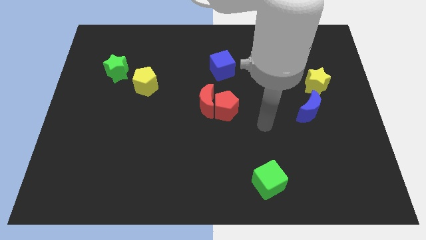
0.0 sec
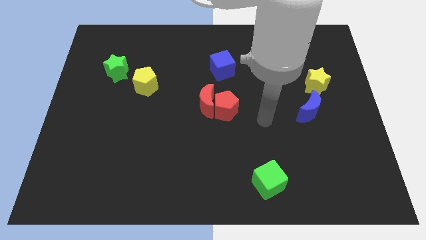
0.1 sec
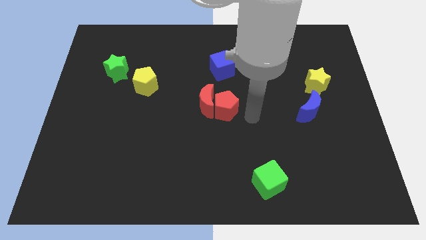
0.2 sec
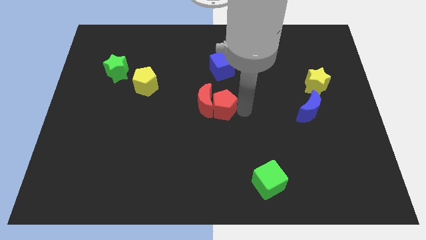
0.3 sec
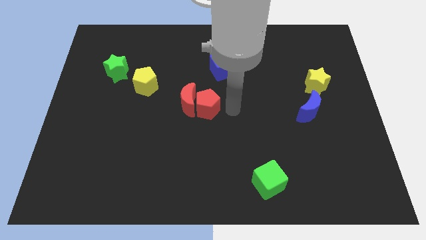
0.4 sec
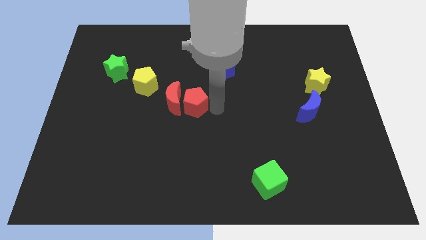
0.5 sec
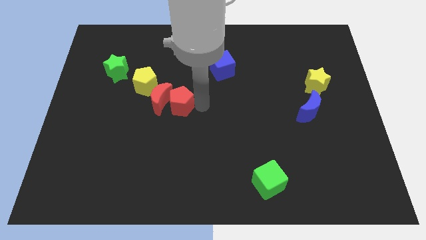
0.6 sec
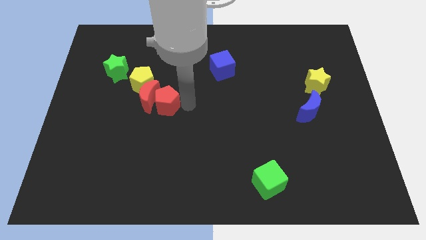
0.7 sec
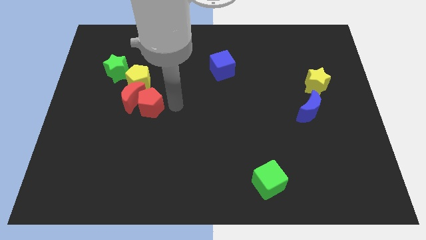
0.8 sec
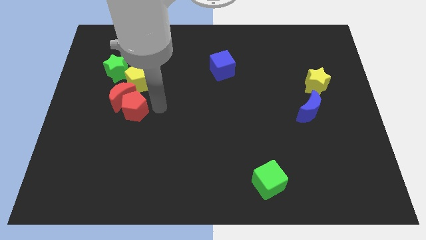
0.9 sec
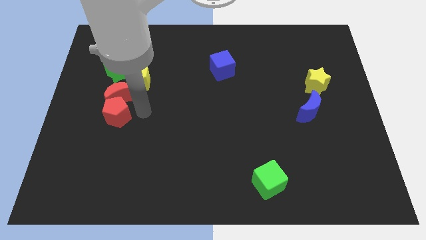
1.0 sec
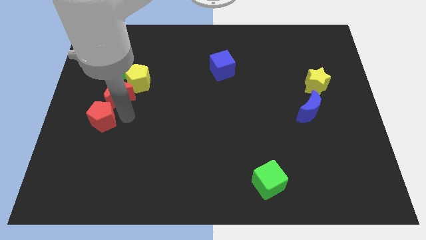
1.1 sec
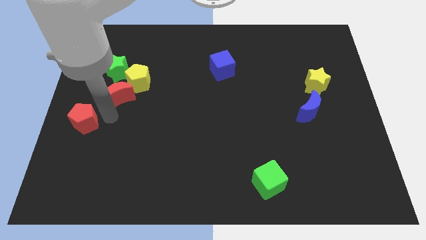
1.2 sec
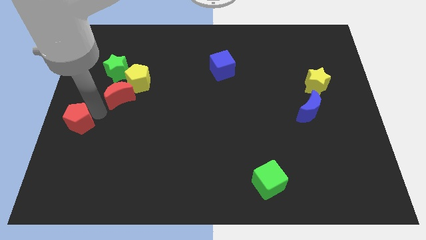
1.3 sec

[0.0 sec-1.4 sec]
move the red moon away from the red pentagon

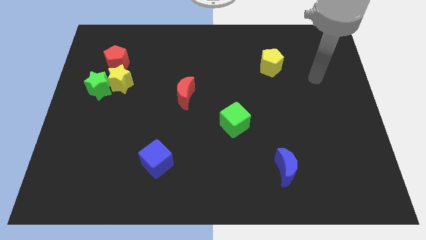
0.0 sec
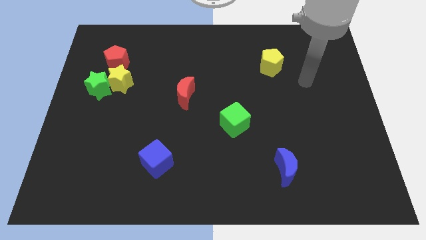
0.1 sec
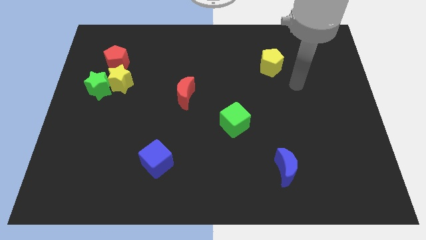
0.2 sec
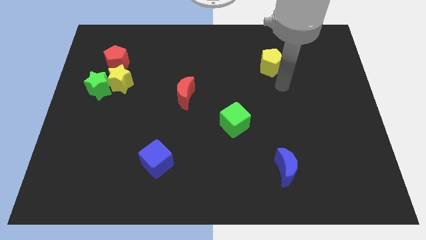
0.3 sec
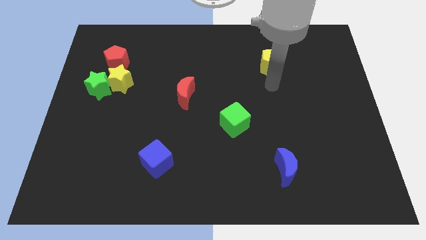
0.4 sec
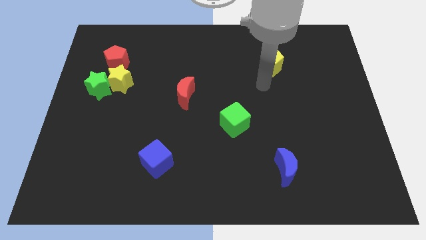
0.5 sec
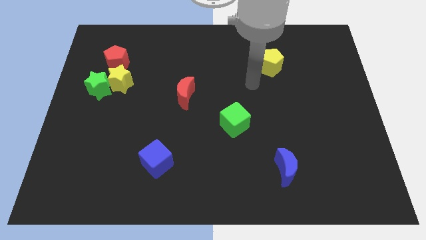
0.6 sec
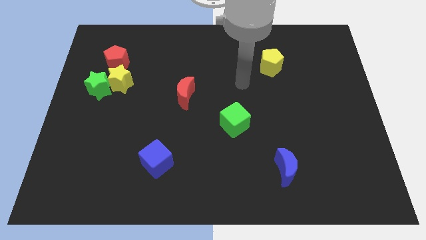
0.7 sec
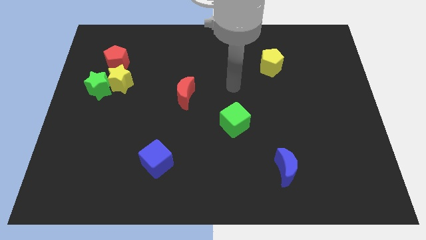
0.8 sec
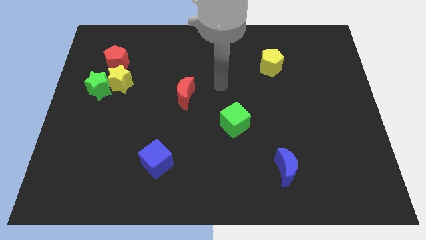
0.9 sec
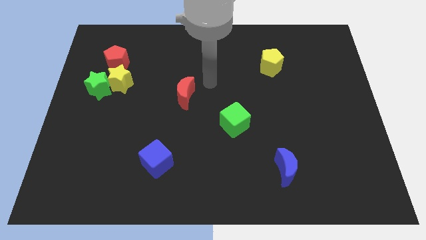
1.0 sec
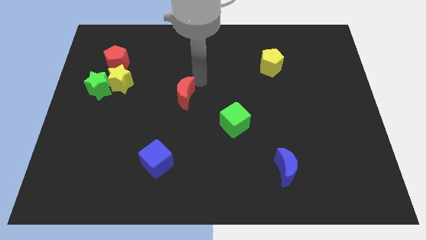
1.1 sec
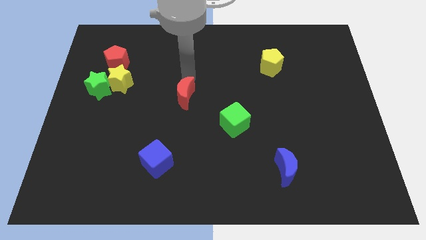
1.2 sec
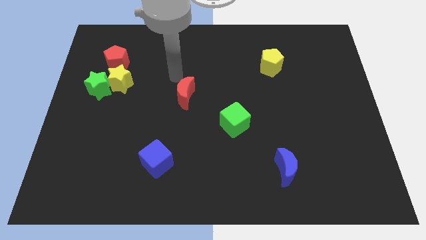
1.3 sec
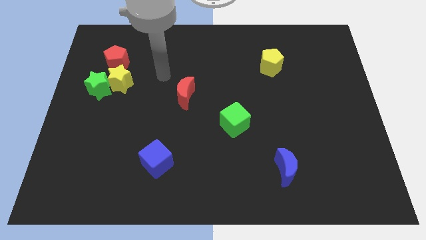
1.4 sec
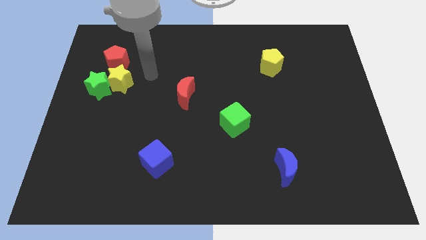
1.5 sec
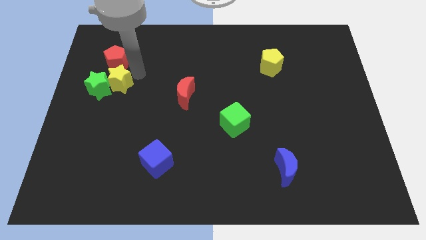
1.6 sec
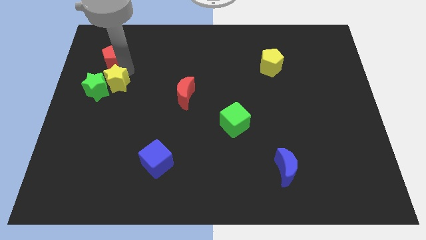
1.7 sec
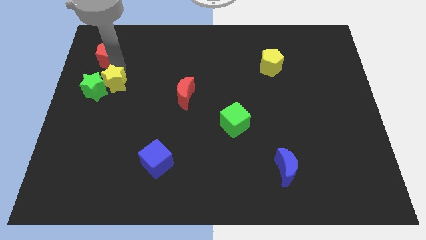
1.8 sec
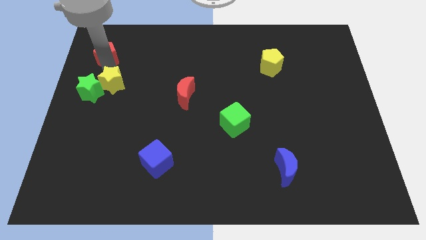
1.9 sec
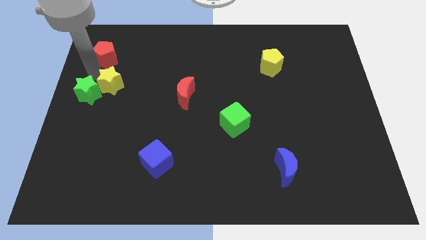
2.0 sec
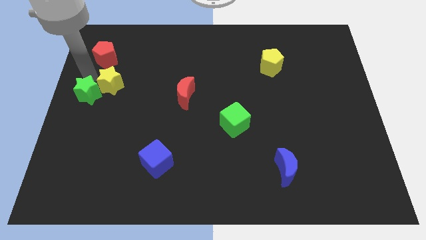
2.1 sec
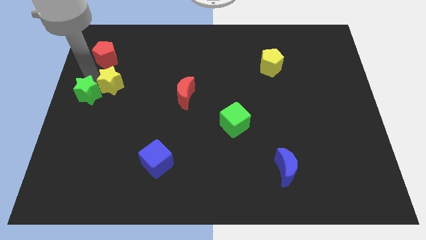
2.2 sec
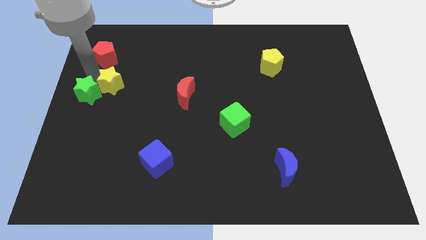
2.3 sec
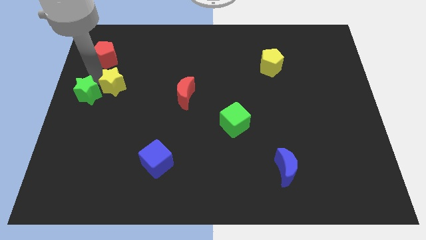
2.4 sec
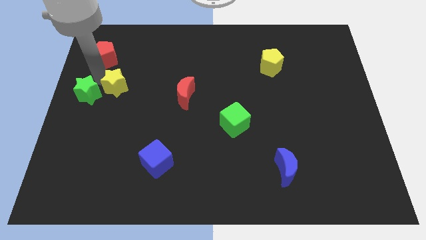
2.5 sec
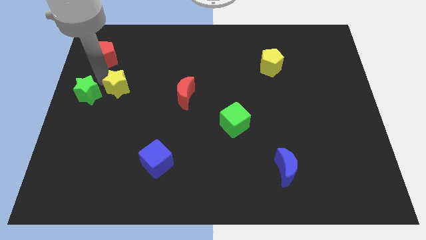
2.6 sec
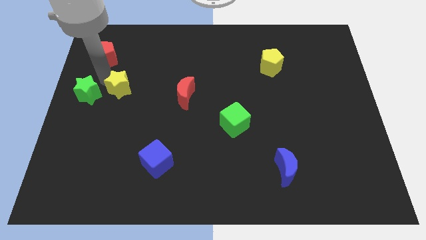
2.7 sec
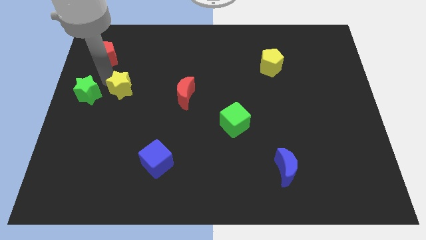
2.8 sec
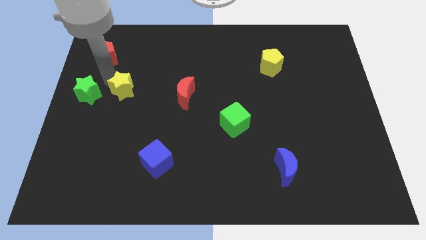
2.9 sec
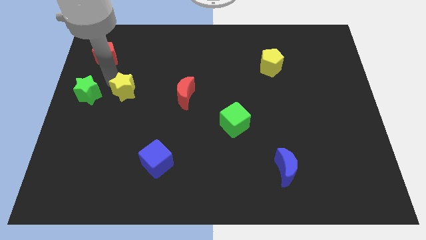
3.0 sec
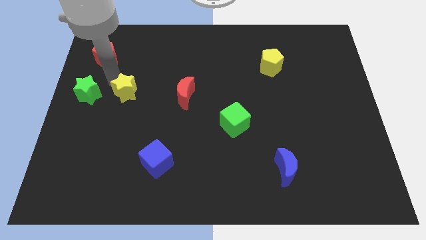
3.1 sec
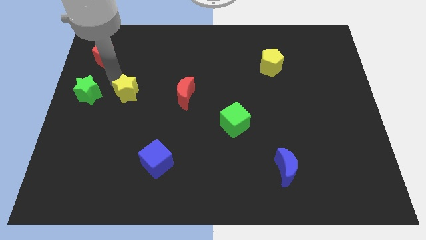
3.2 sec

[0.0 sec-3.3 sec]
separate the yellow star from the green star and red pentagon

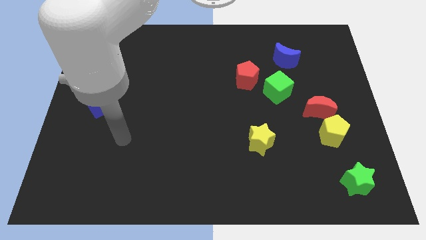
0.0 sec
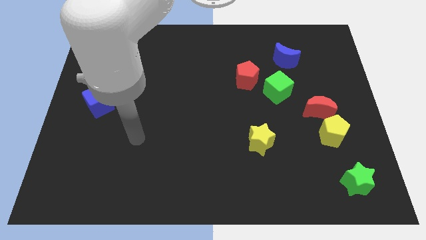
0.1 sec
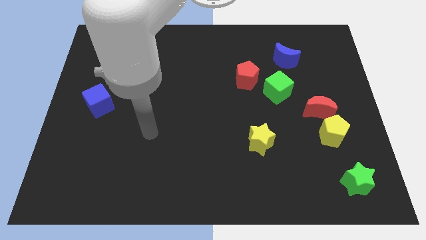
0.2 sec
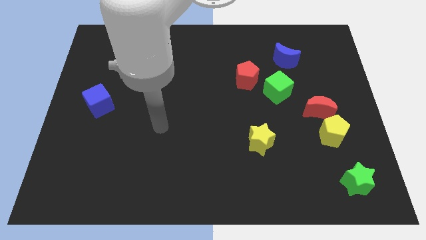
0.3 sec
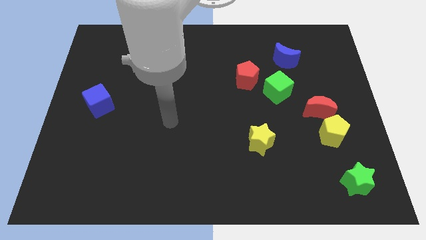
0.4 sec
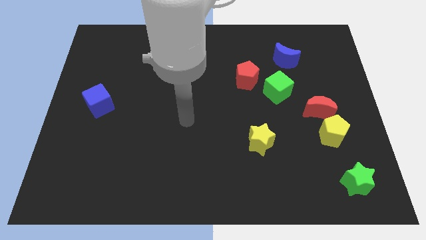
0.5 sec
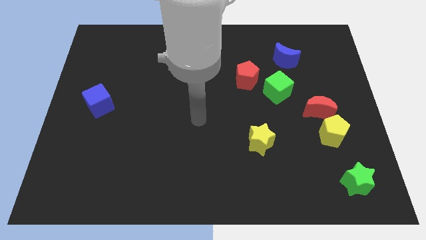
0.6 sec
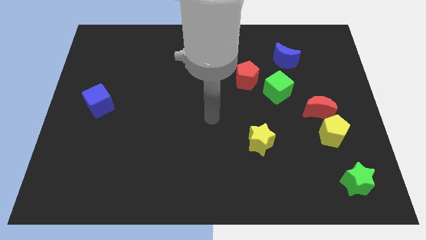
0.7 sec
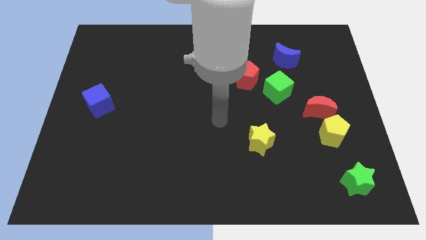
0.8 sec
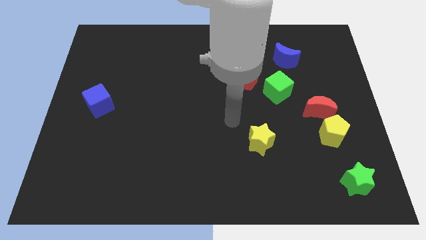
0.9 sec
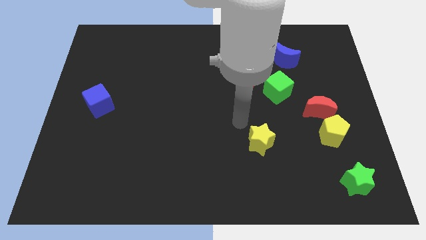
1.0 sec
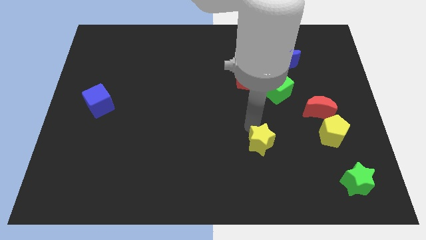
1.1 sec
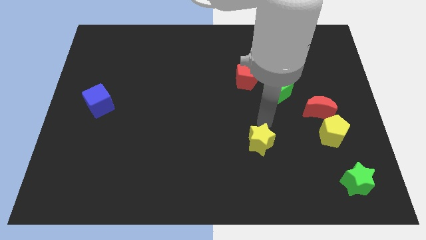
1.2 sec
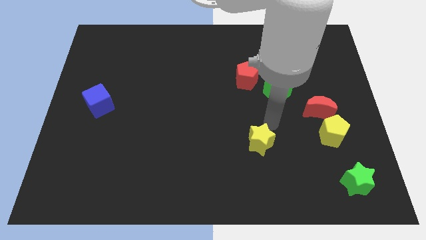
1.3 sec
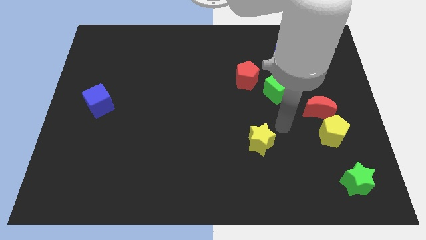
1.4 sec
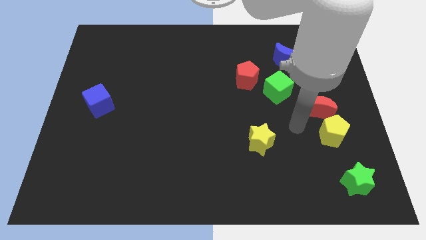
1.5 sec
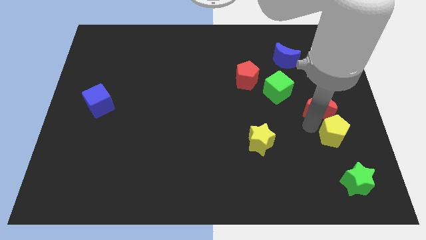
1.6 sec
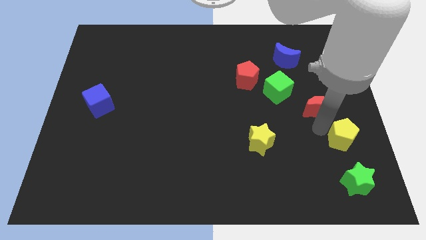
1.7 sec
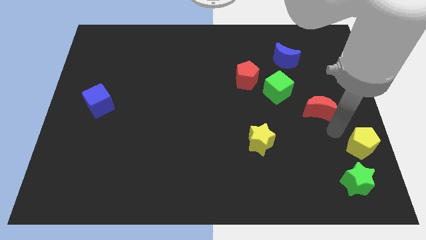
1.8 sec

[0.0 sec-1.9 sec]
move the red moon away from the yellow pentagon

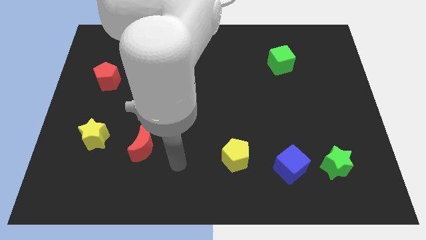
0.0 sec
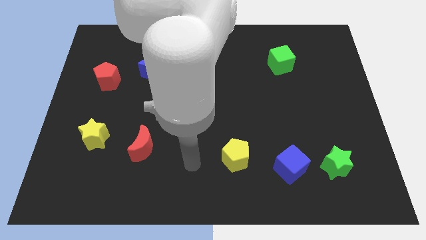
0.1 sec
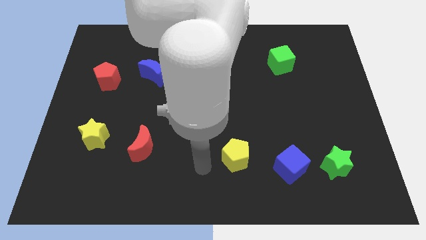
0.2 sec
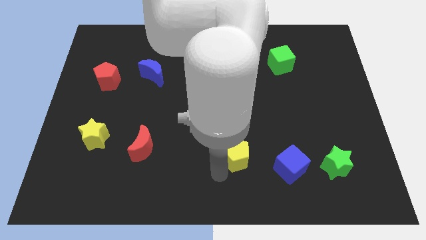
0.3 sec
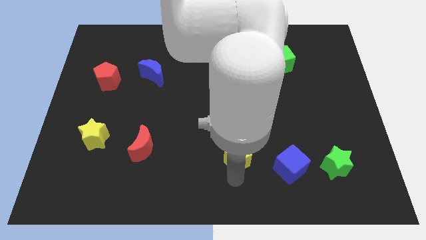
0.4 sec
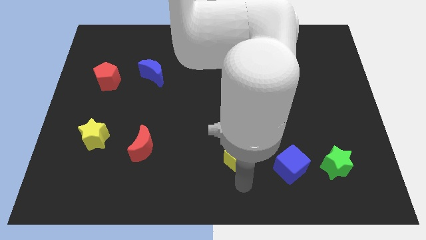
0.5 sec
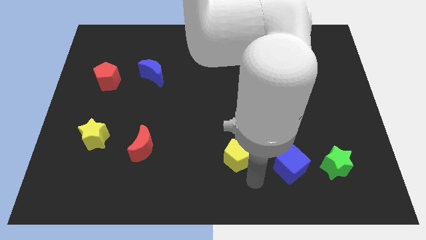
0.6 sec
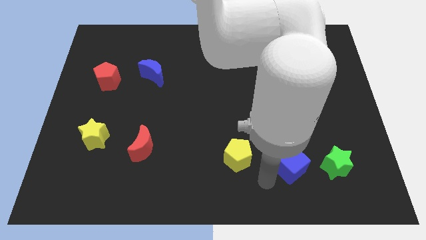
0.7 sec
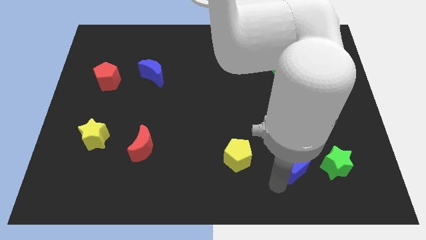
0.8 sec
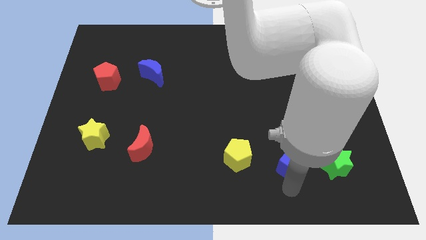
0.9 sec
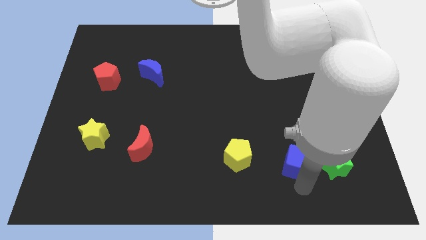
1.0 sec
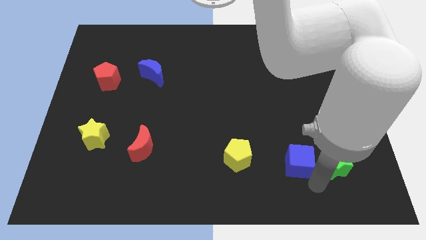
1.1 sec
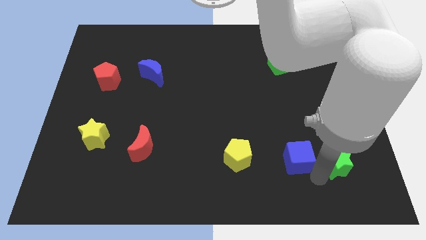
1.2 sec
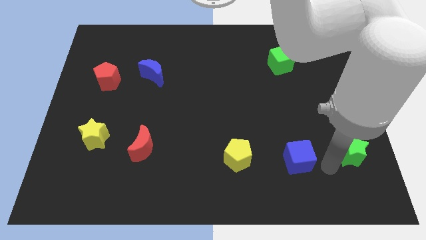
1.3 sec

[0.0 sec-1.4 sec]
pull the blue cube apart from the green star

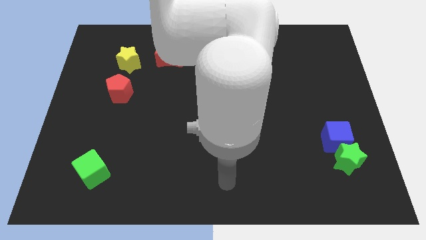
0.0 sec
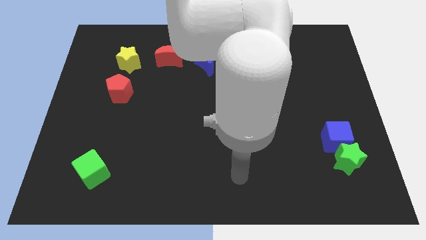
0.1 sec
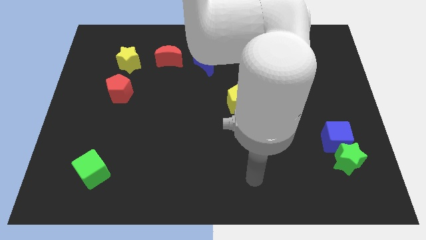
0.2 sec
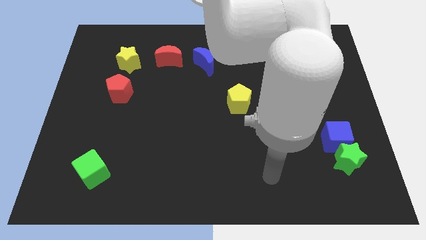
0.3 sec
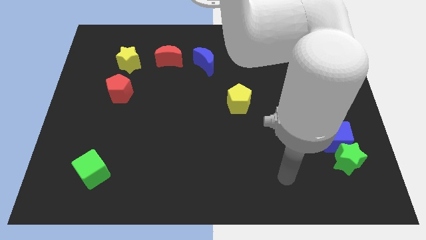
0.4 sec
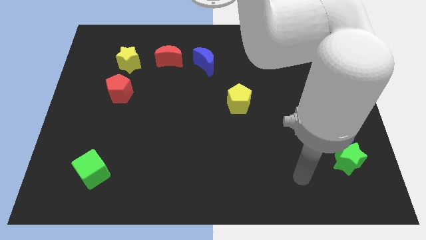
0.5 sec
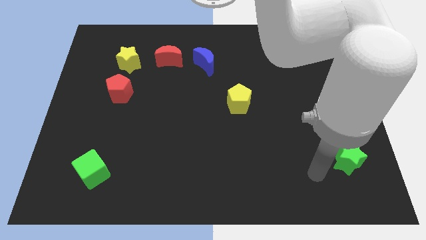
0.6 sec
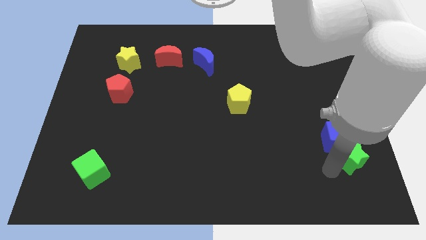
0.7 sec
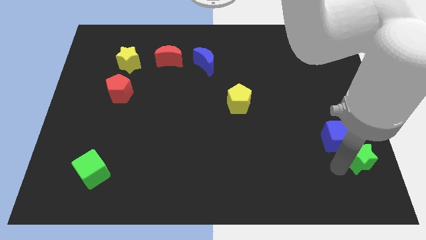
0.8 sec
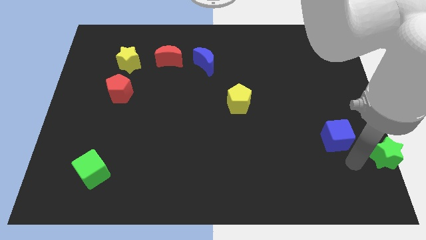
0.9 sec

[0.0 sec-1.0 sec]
move the blue cube away from the green star

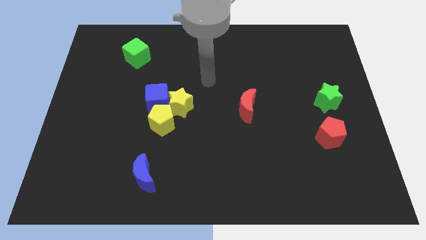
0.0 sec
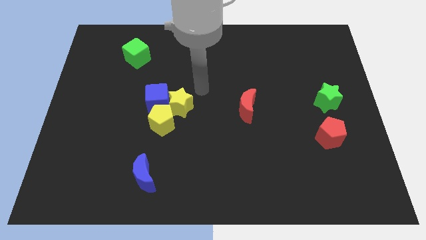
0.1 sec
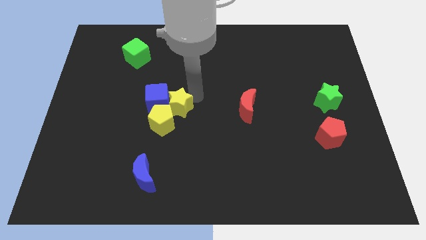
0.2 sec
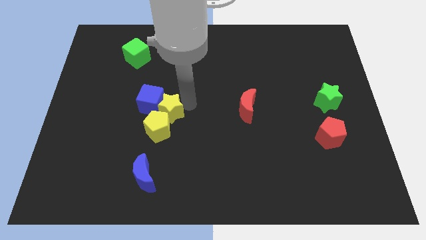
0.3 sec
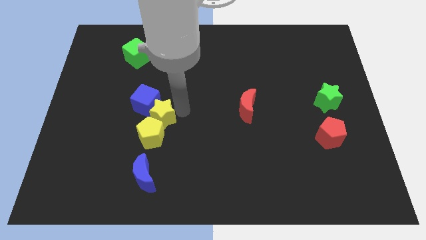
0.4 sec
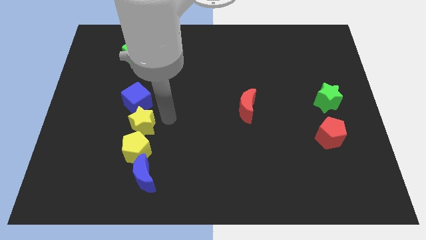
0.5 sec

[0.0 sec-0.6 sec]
separate the blue cube from the yellow star and yellow pentagon
